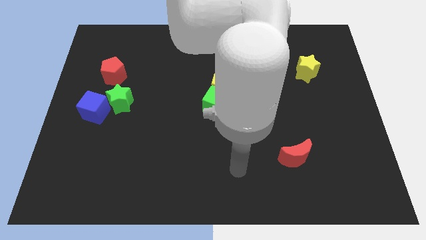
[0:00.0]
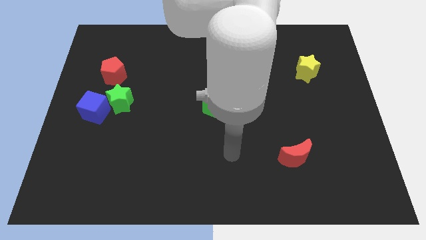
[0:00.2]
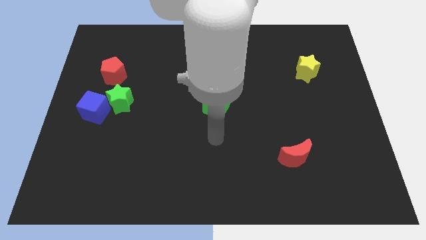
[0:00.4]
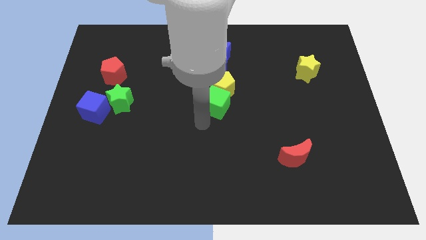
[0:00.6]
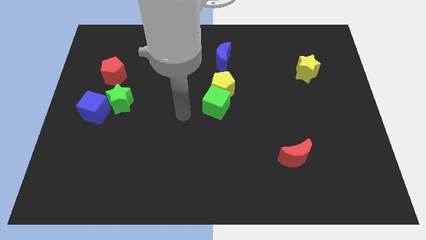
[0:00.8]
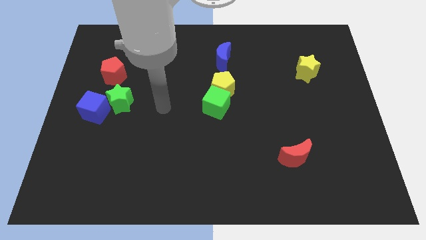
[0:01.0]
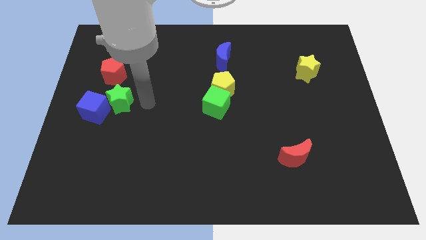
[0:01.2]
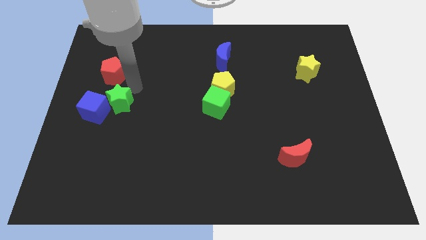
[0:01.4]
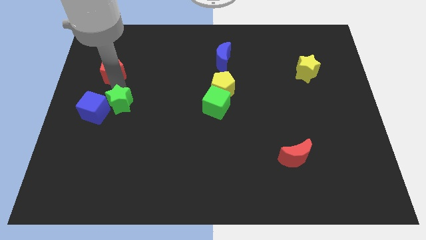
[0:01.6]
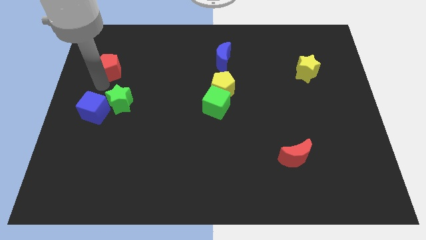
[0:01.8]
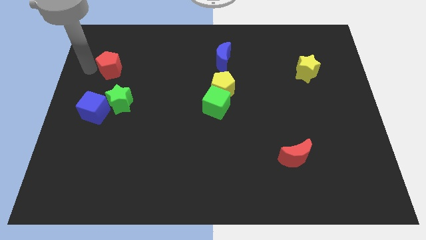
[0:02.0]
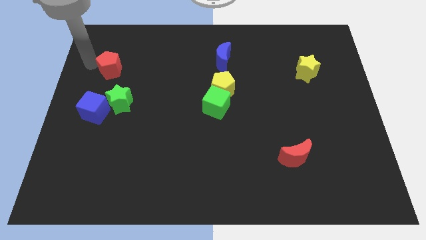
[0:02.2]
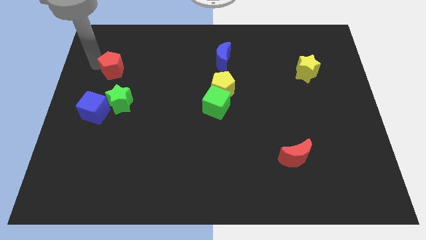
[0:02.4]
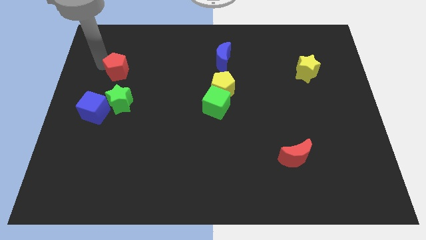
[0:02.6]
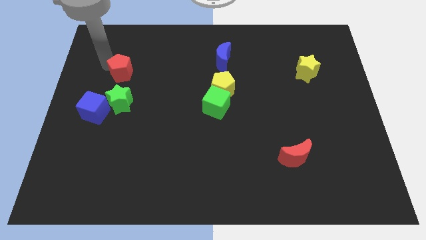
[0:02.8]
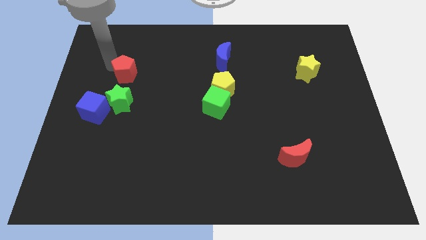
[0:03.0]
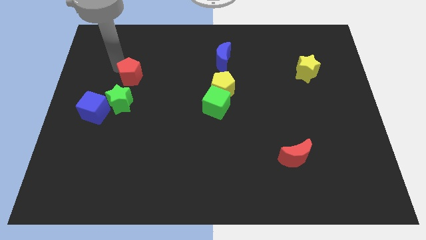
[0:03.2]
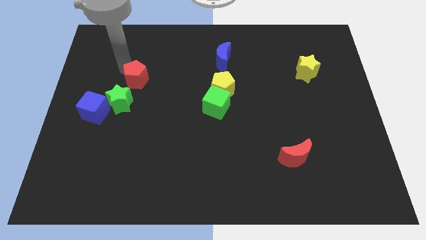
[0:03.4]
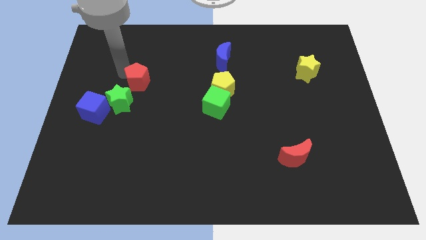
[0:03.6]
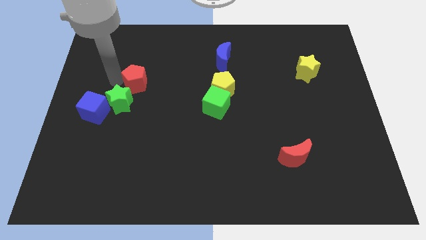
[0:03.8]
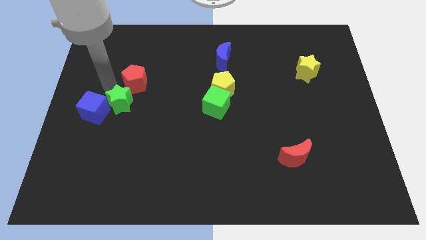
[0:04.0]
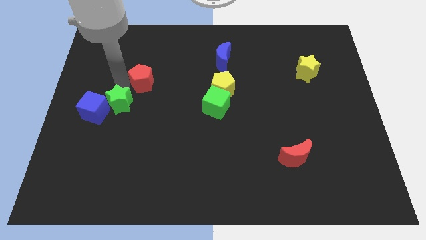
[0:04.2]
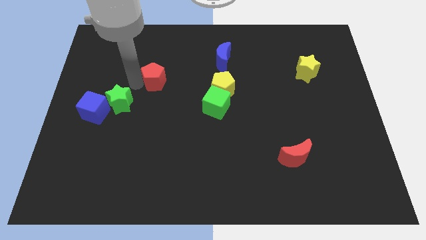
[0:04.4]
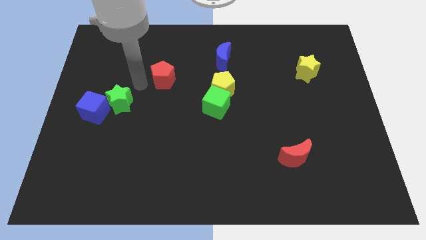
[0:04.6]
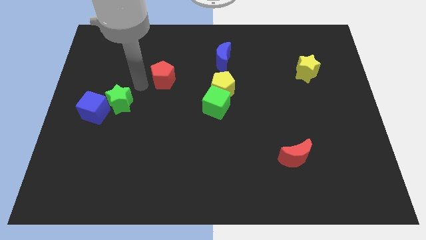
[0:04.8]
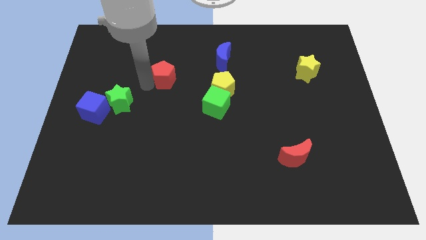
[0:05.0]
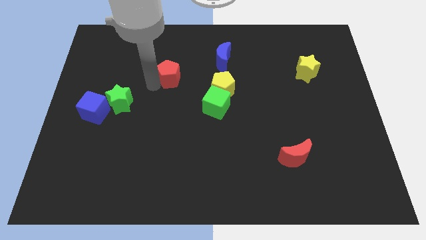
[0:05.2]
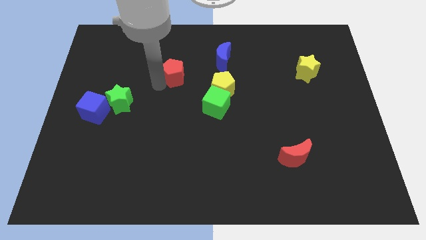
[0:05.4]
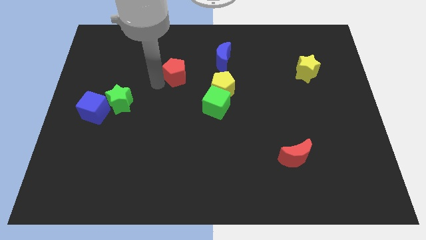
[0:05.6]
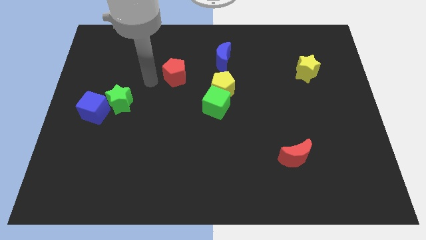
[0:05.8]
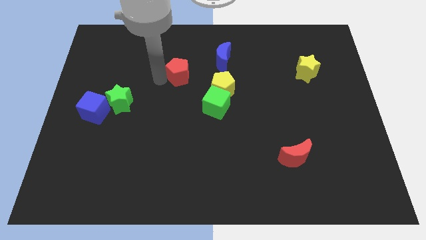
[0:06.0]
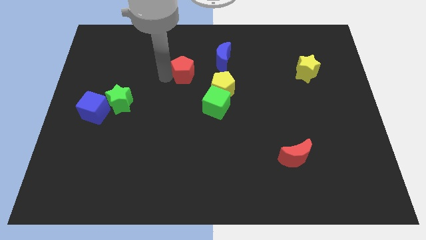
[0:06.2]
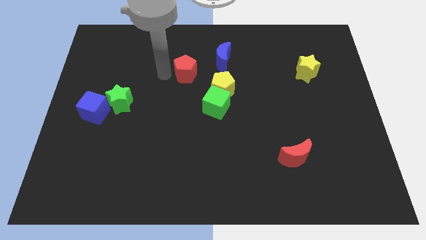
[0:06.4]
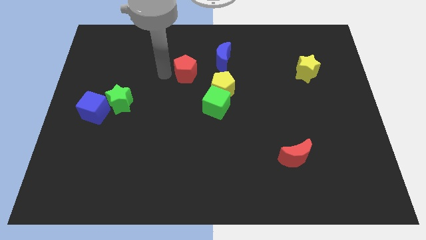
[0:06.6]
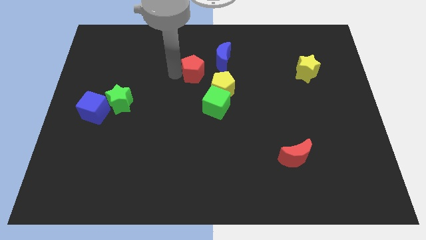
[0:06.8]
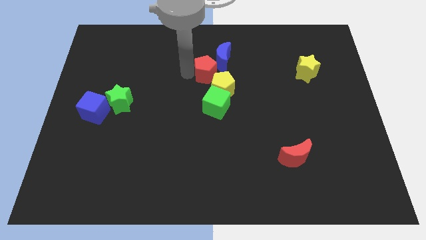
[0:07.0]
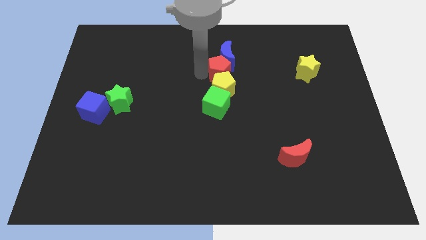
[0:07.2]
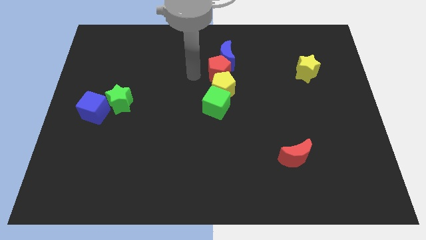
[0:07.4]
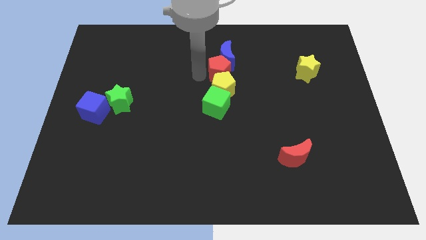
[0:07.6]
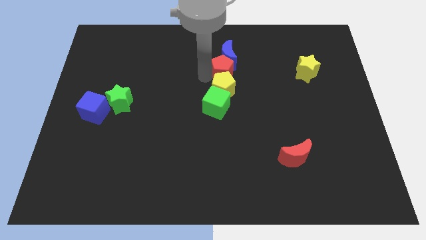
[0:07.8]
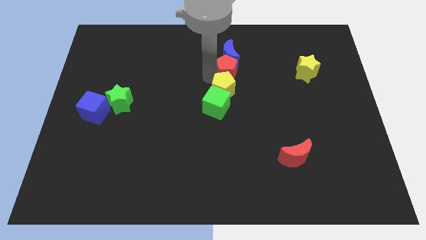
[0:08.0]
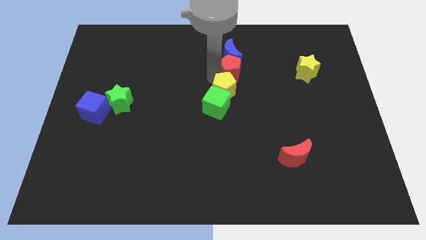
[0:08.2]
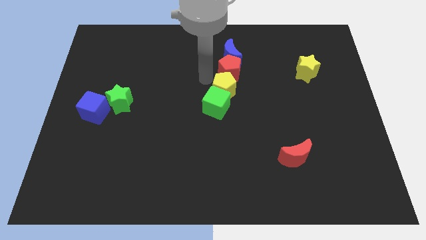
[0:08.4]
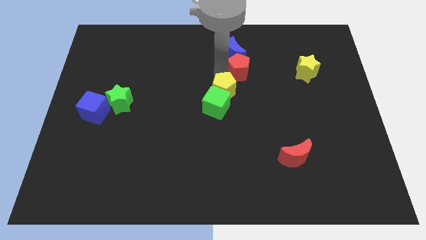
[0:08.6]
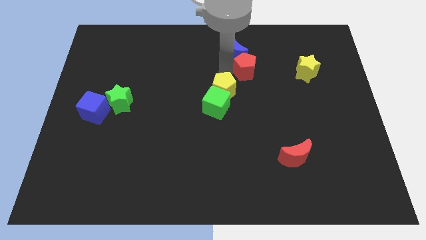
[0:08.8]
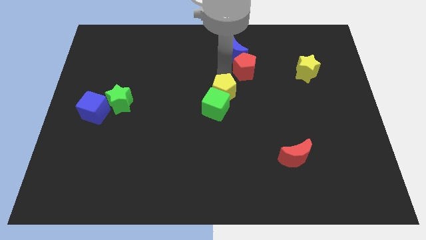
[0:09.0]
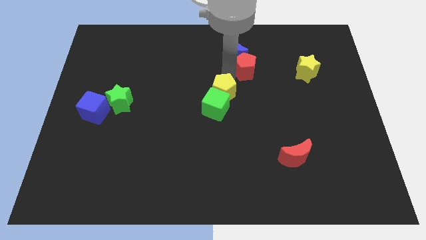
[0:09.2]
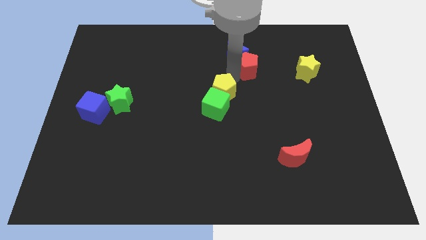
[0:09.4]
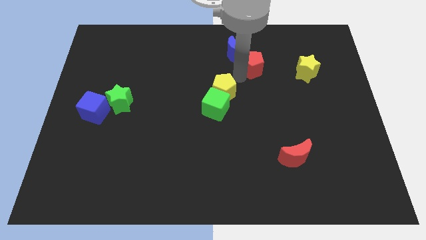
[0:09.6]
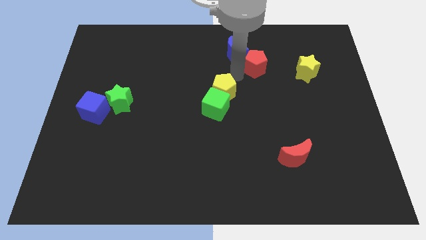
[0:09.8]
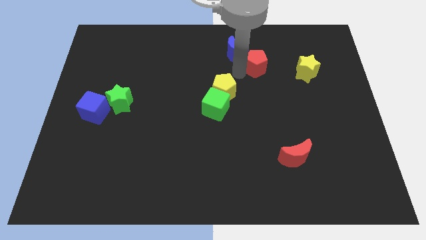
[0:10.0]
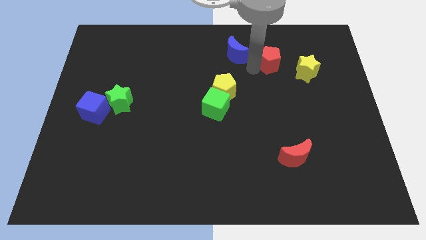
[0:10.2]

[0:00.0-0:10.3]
slide the red pentagon to the top left of the yellow star

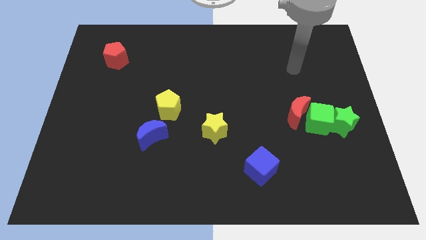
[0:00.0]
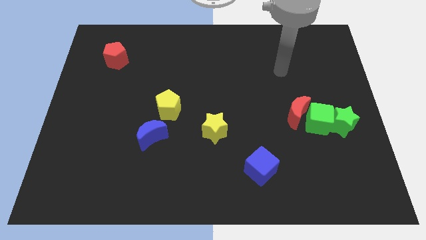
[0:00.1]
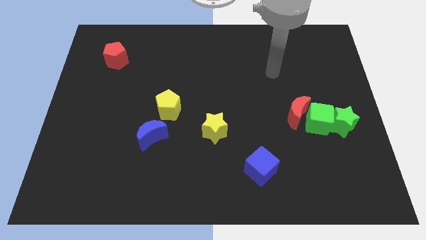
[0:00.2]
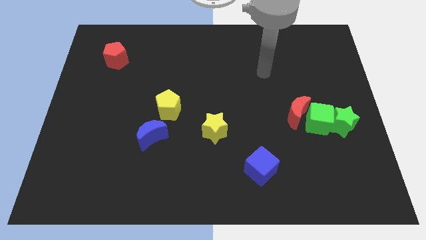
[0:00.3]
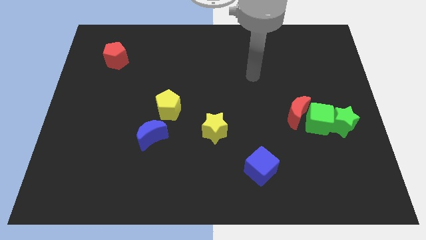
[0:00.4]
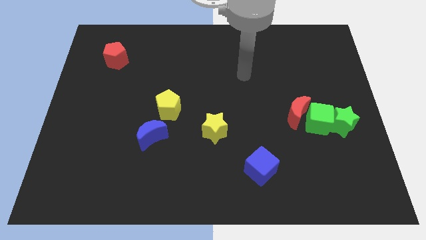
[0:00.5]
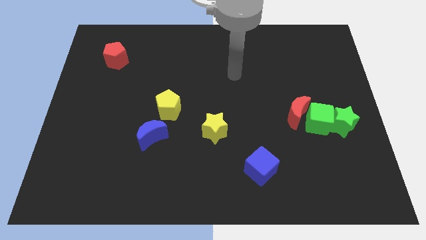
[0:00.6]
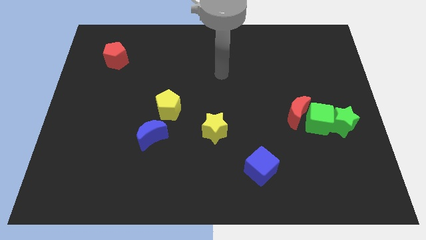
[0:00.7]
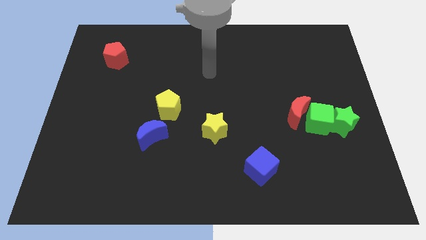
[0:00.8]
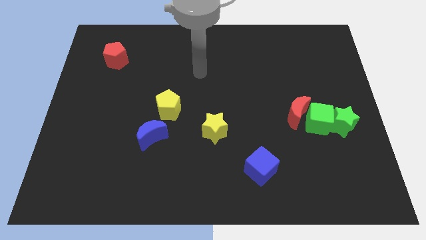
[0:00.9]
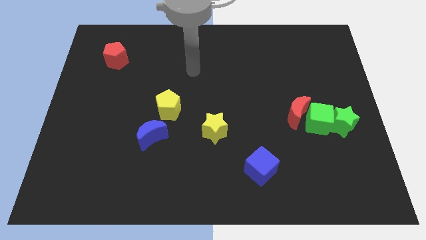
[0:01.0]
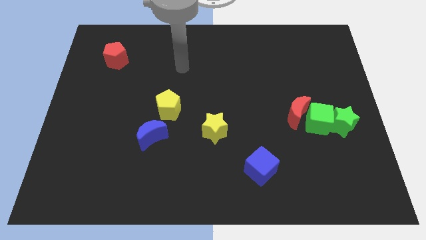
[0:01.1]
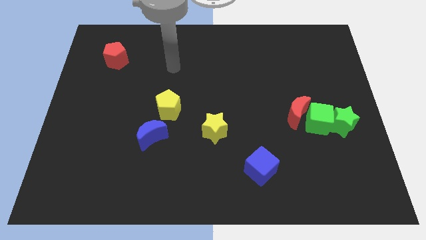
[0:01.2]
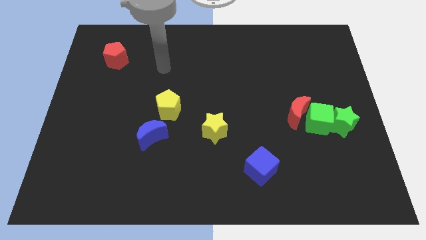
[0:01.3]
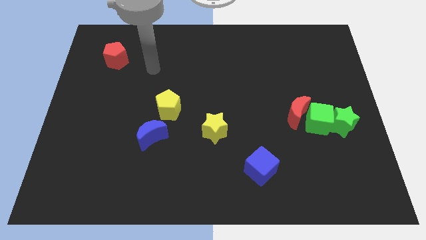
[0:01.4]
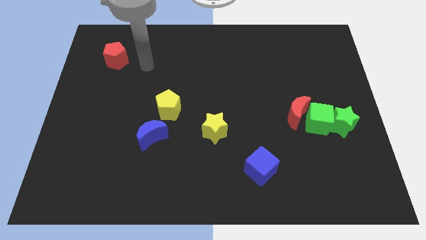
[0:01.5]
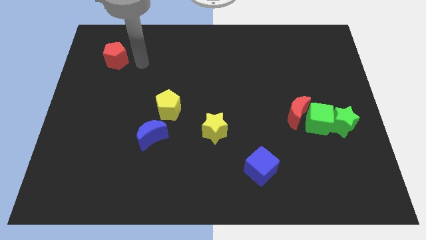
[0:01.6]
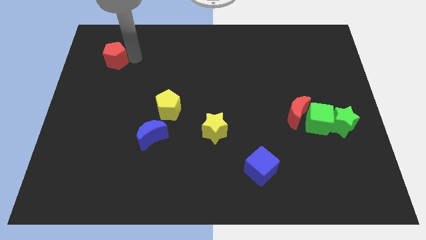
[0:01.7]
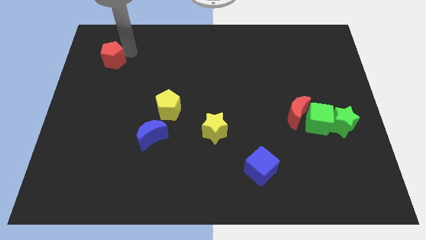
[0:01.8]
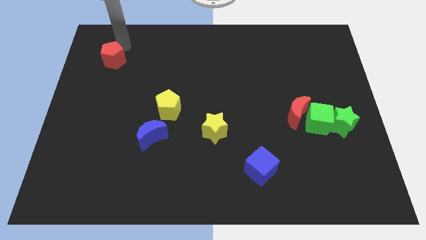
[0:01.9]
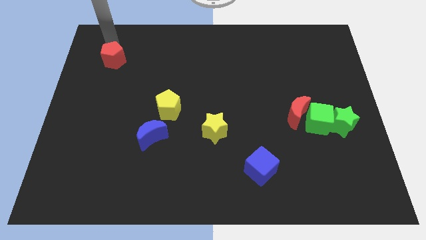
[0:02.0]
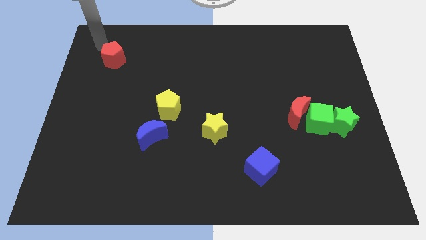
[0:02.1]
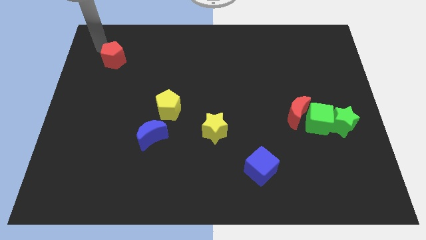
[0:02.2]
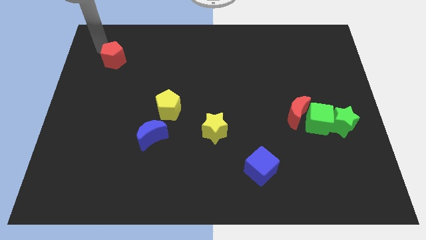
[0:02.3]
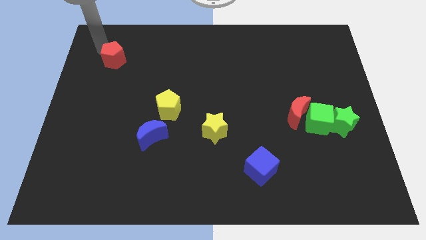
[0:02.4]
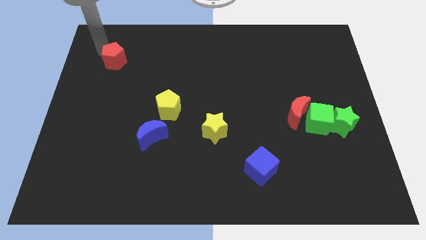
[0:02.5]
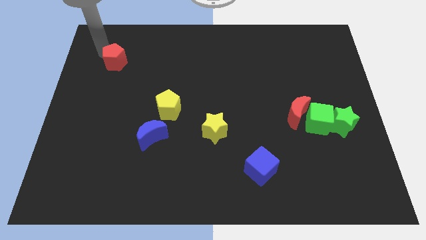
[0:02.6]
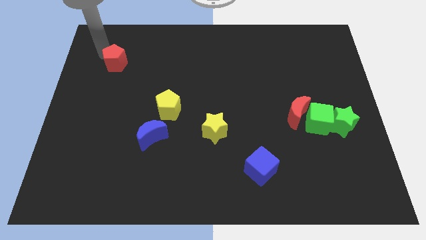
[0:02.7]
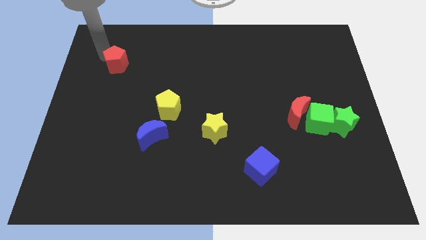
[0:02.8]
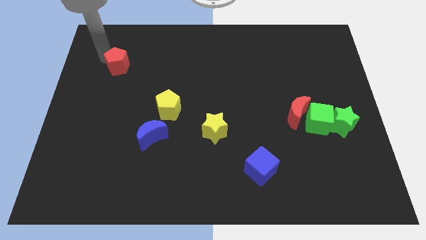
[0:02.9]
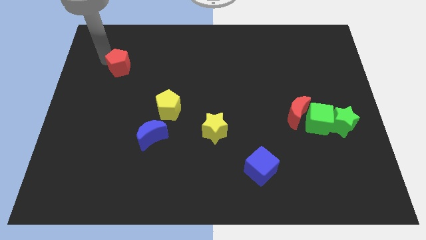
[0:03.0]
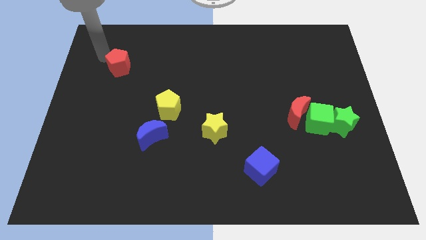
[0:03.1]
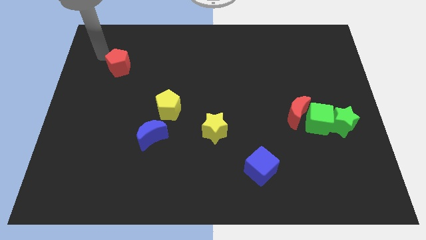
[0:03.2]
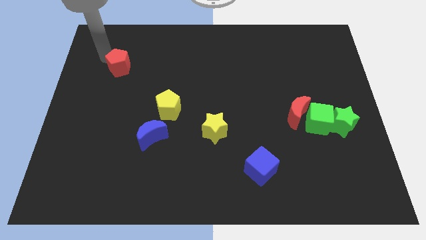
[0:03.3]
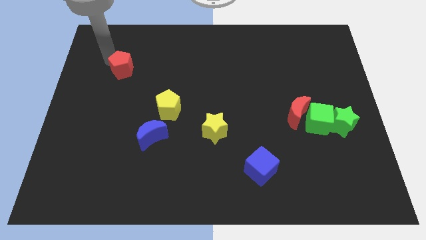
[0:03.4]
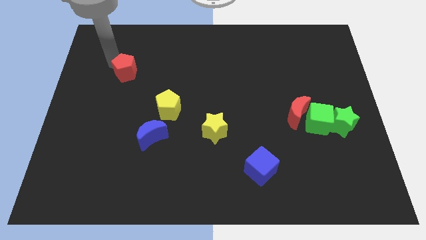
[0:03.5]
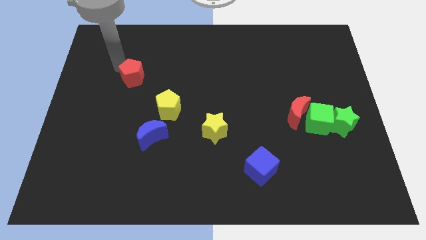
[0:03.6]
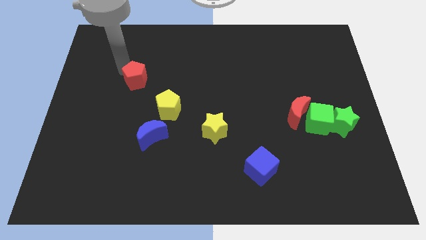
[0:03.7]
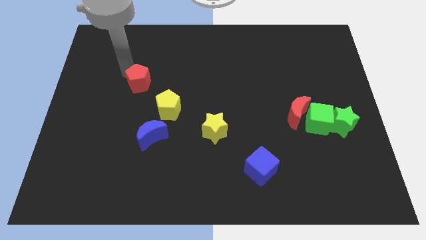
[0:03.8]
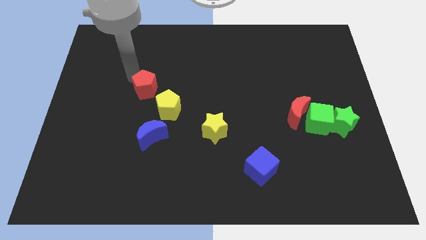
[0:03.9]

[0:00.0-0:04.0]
put the red pentagon above the blue moon
